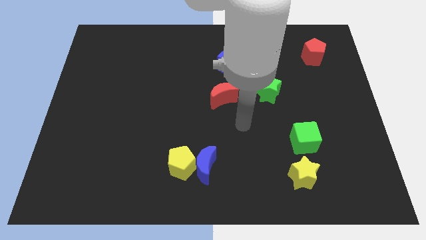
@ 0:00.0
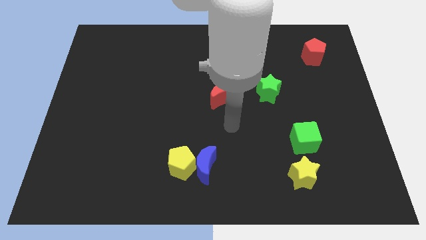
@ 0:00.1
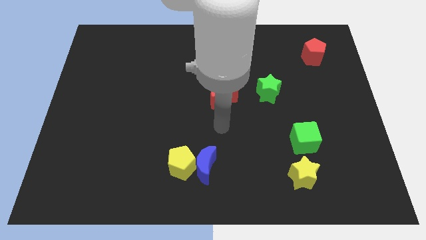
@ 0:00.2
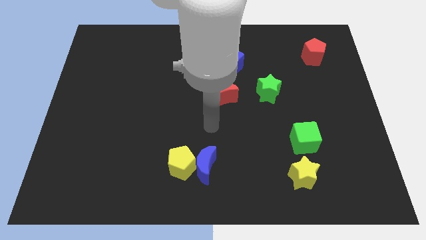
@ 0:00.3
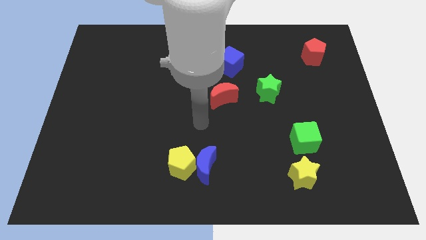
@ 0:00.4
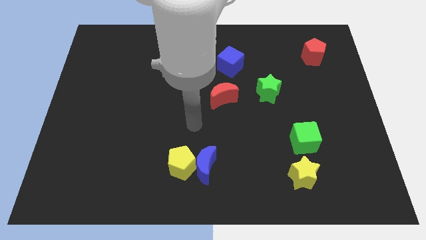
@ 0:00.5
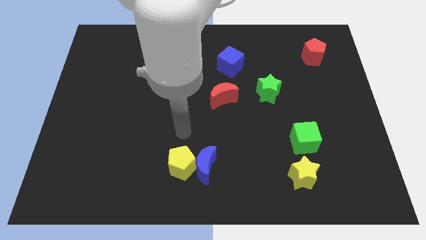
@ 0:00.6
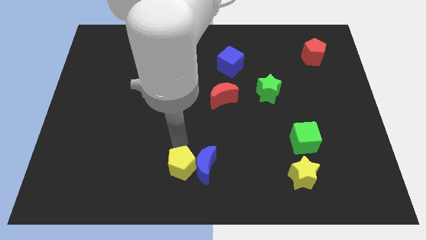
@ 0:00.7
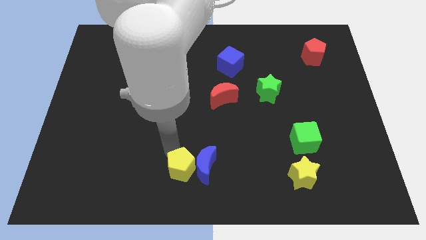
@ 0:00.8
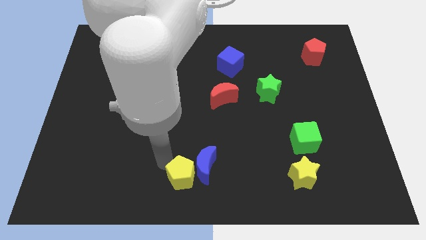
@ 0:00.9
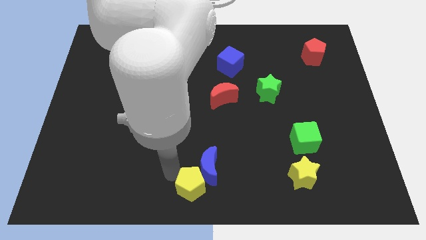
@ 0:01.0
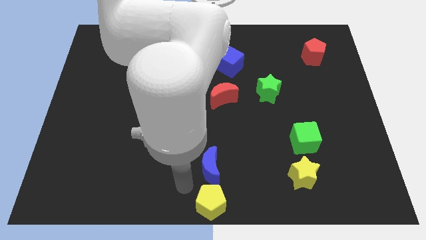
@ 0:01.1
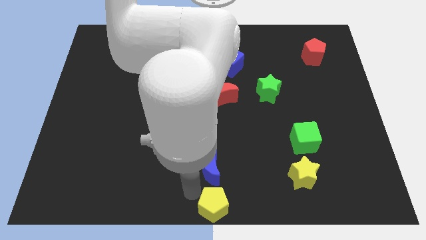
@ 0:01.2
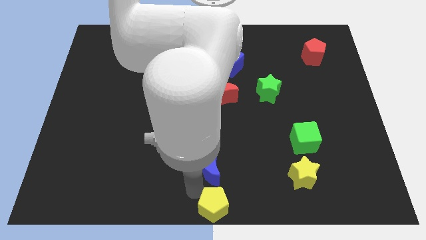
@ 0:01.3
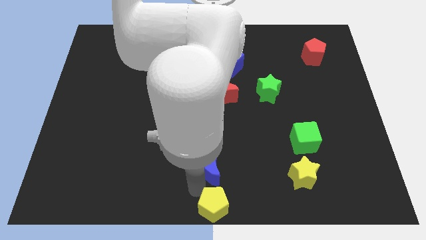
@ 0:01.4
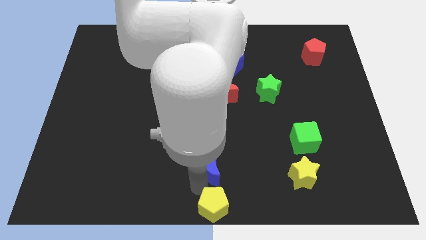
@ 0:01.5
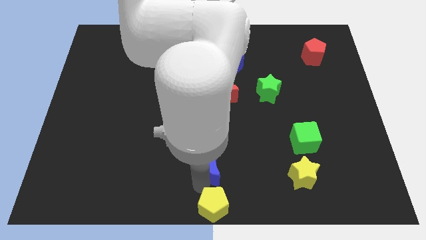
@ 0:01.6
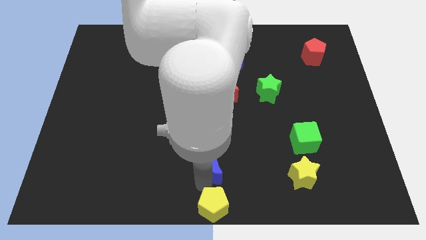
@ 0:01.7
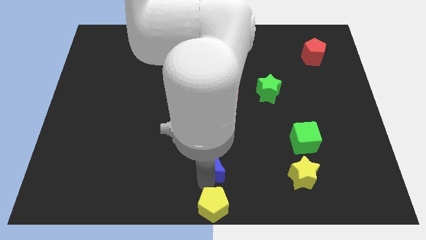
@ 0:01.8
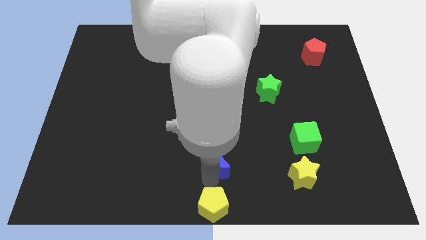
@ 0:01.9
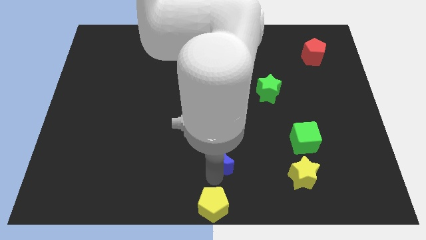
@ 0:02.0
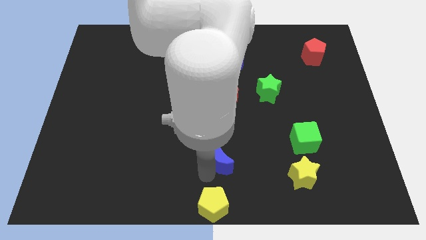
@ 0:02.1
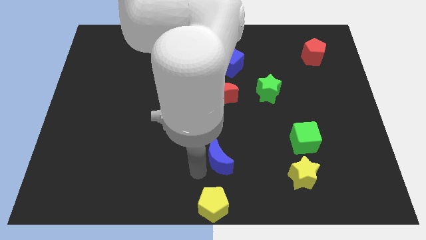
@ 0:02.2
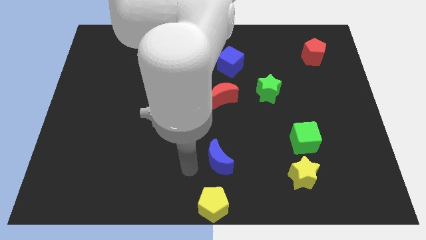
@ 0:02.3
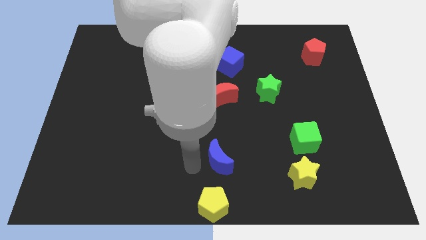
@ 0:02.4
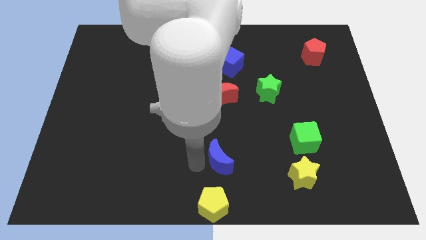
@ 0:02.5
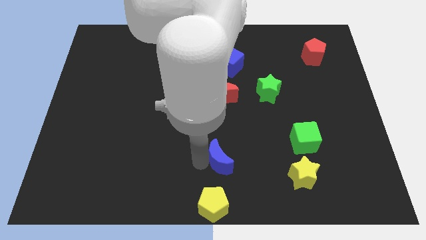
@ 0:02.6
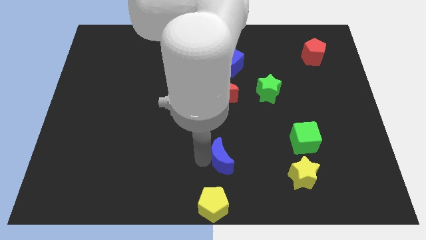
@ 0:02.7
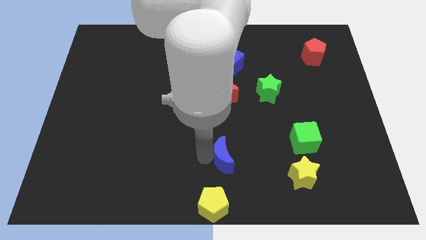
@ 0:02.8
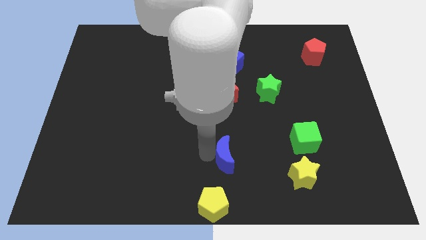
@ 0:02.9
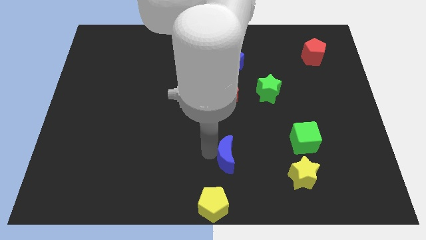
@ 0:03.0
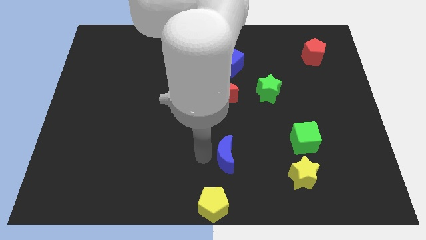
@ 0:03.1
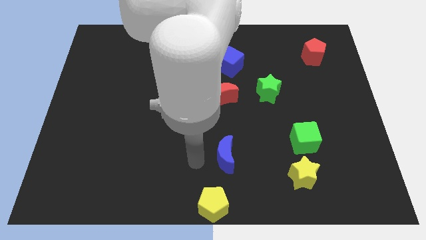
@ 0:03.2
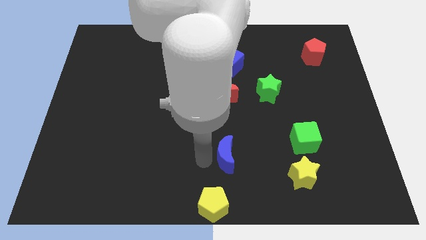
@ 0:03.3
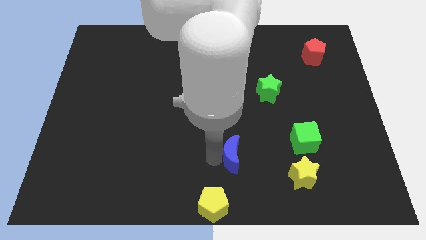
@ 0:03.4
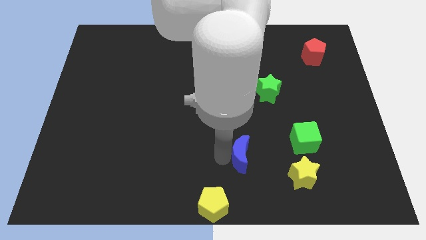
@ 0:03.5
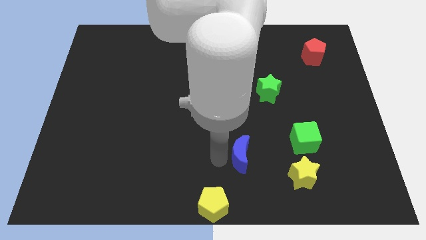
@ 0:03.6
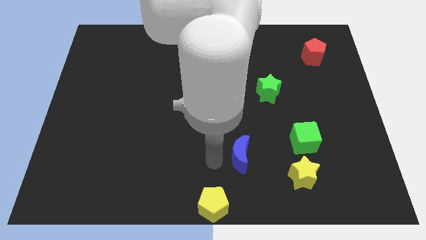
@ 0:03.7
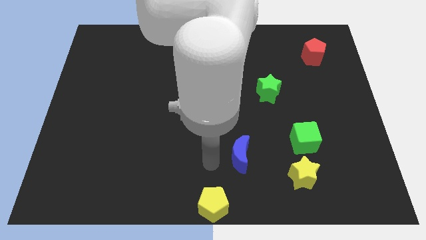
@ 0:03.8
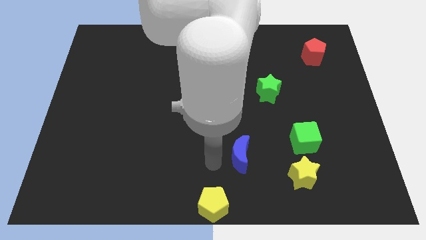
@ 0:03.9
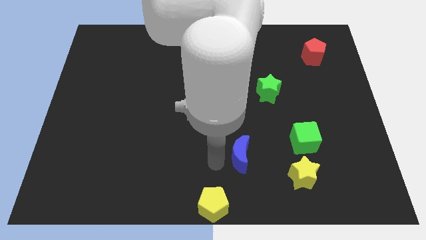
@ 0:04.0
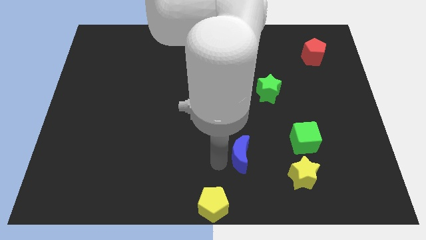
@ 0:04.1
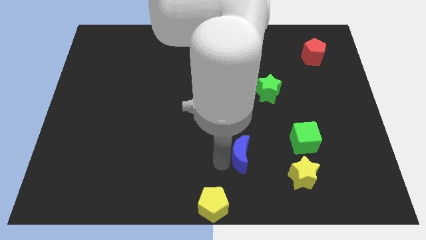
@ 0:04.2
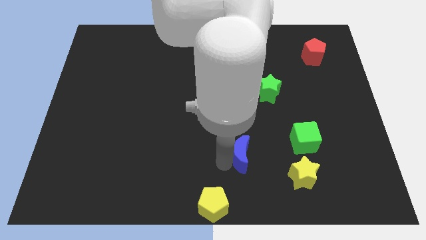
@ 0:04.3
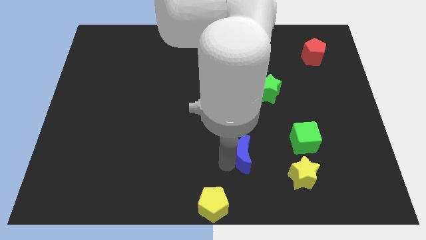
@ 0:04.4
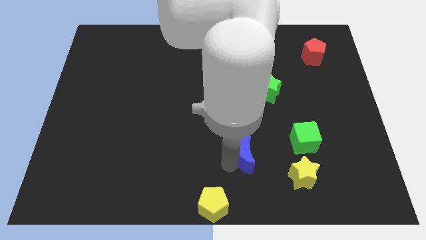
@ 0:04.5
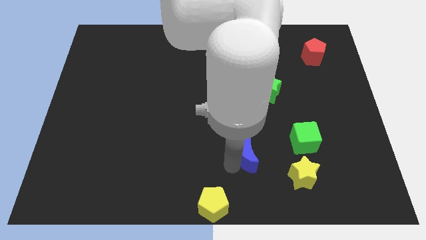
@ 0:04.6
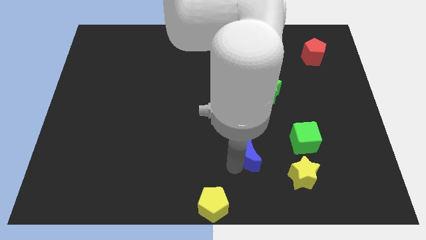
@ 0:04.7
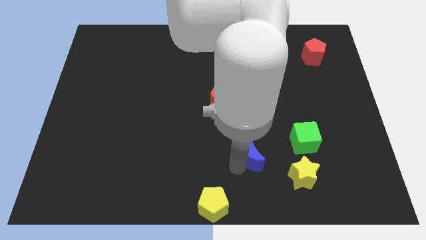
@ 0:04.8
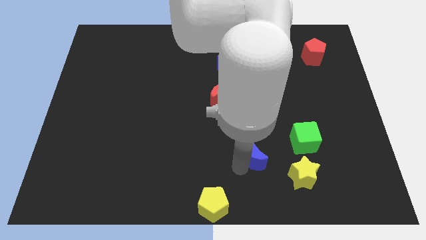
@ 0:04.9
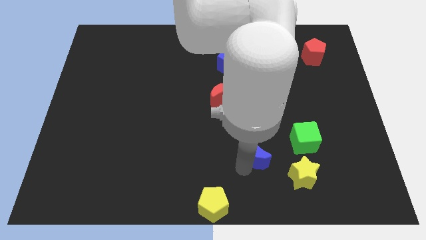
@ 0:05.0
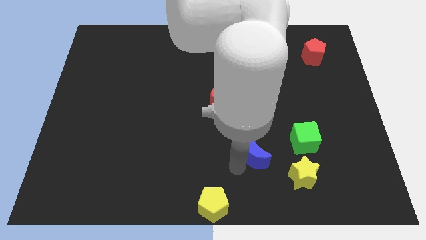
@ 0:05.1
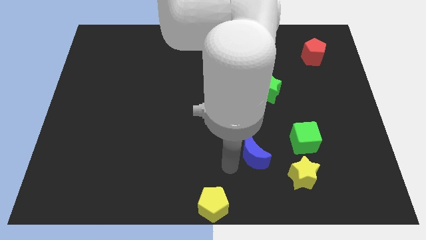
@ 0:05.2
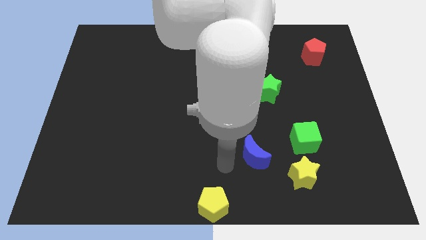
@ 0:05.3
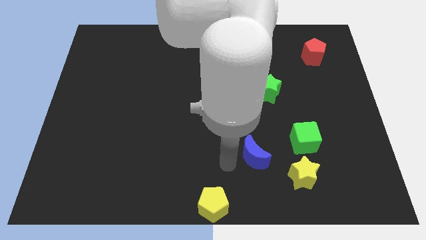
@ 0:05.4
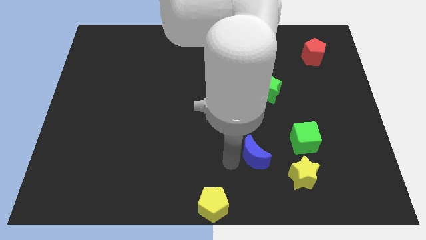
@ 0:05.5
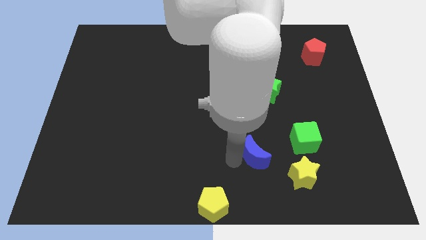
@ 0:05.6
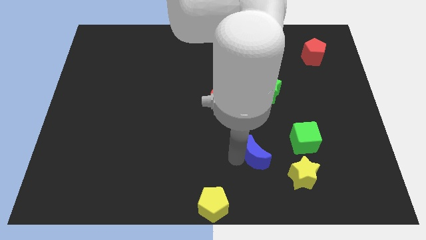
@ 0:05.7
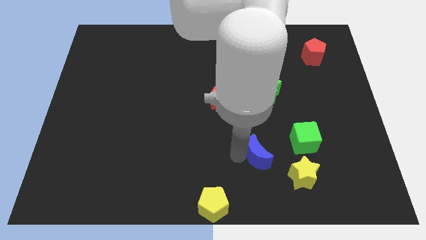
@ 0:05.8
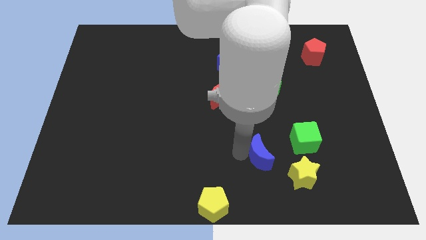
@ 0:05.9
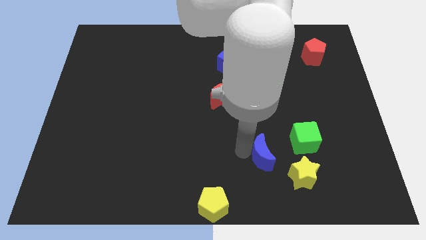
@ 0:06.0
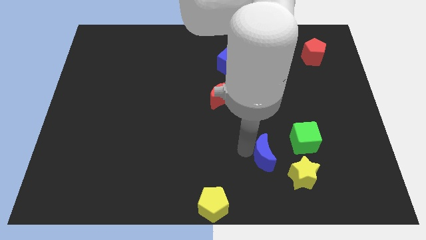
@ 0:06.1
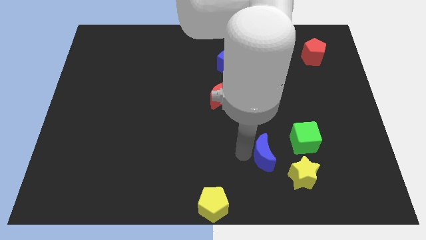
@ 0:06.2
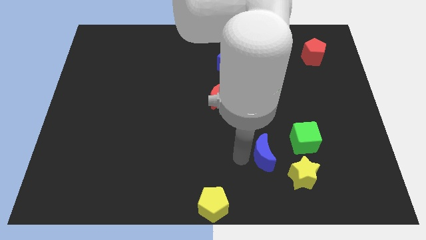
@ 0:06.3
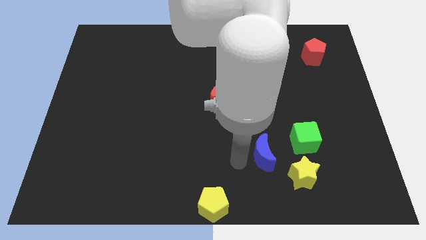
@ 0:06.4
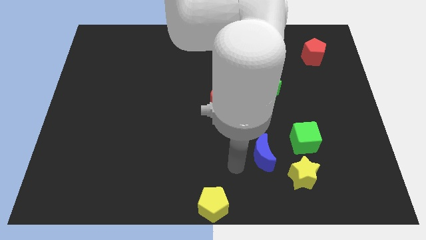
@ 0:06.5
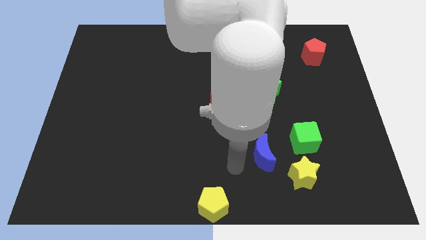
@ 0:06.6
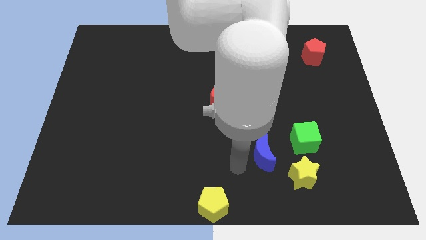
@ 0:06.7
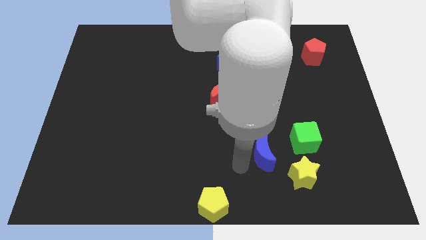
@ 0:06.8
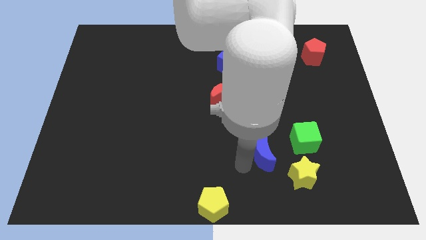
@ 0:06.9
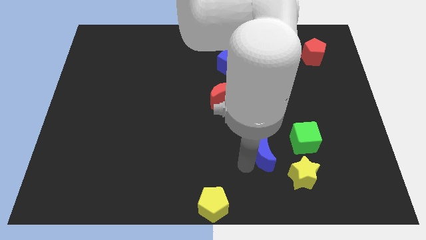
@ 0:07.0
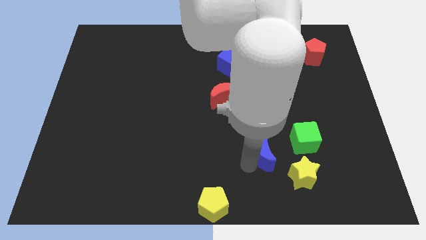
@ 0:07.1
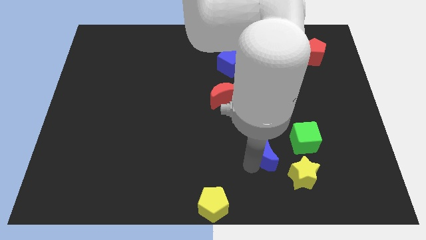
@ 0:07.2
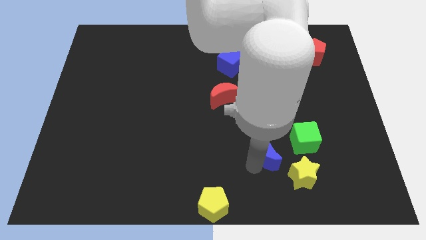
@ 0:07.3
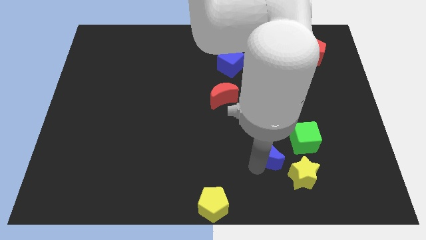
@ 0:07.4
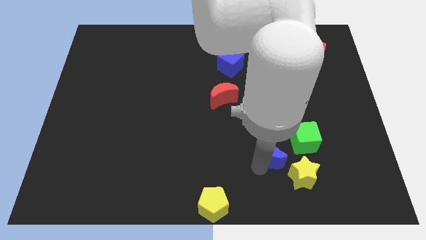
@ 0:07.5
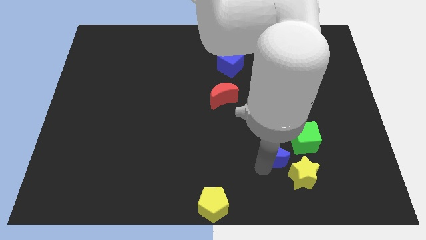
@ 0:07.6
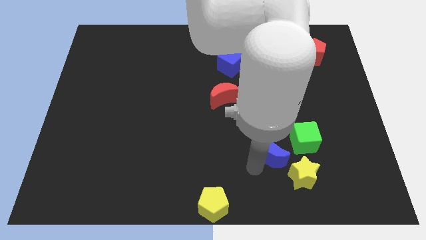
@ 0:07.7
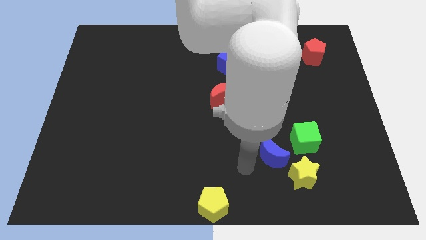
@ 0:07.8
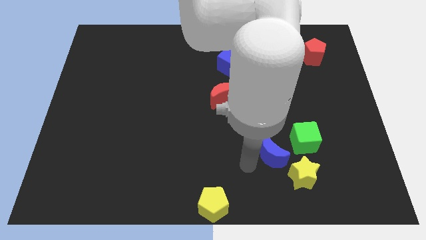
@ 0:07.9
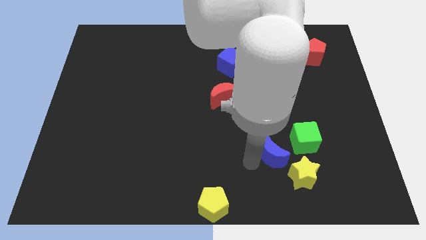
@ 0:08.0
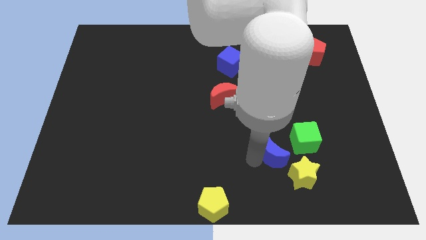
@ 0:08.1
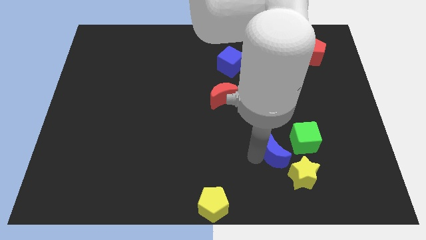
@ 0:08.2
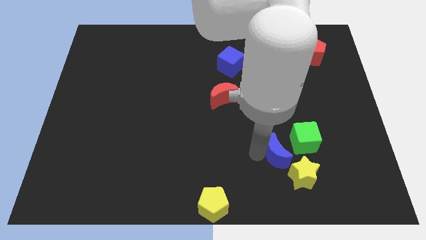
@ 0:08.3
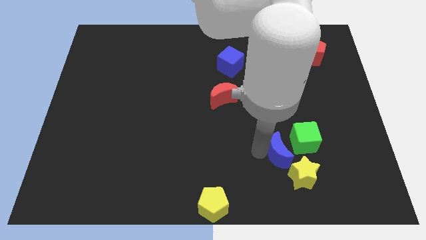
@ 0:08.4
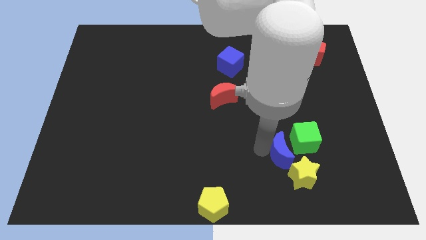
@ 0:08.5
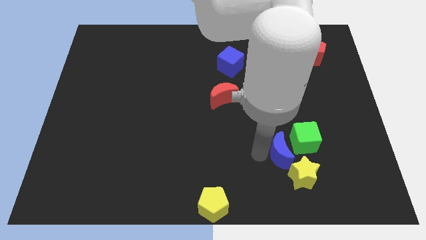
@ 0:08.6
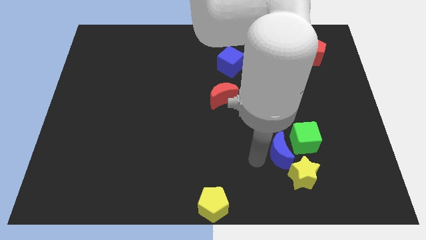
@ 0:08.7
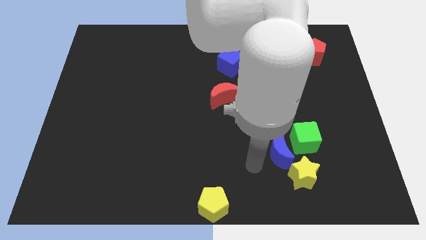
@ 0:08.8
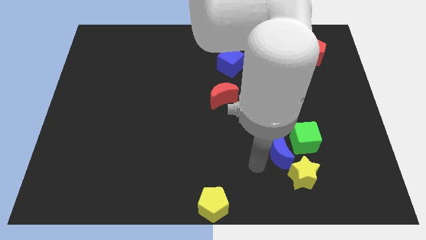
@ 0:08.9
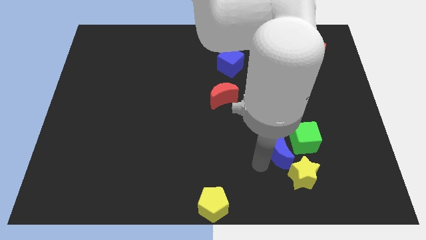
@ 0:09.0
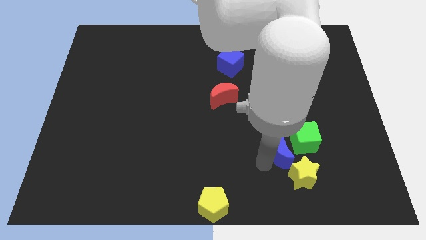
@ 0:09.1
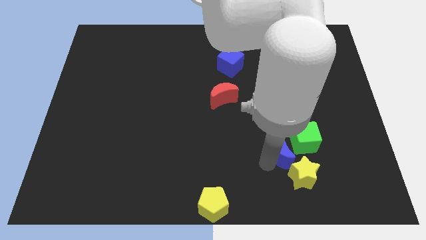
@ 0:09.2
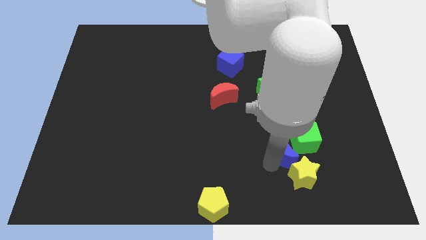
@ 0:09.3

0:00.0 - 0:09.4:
put the blue moon next to the green cube
